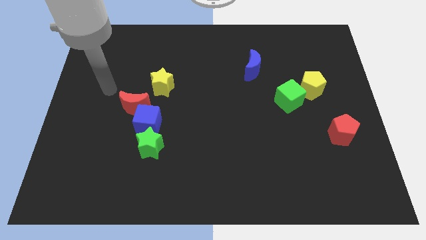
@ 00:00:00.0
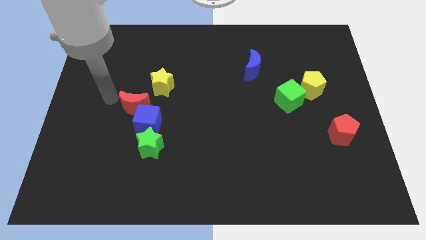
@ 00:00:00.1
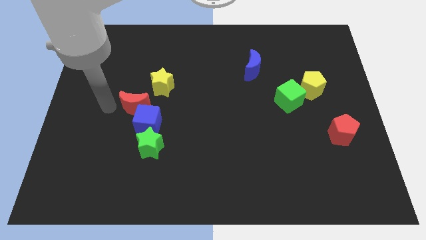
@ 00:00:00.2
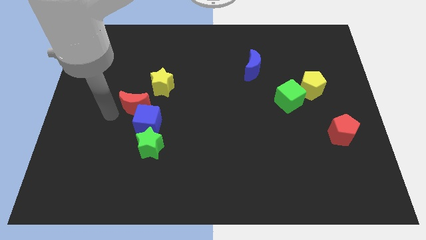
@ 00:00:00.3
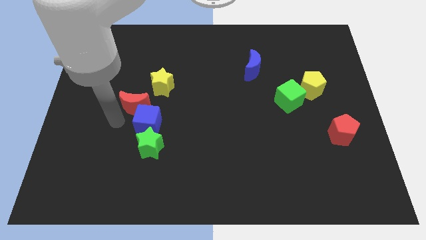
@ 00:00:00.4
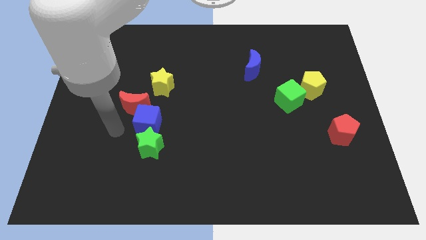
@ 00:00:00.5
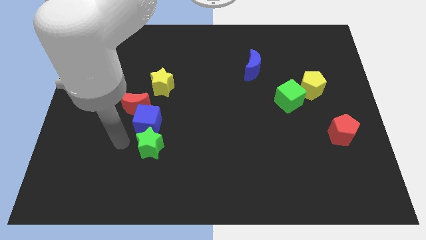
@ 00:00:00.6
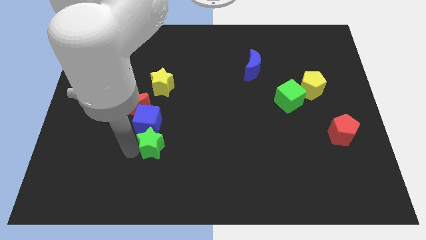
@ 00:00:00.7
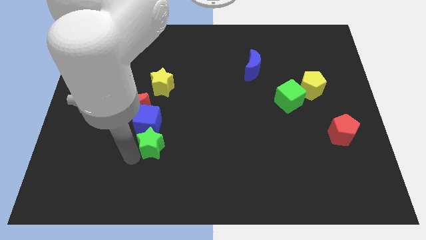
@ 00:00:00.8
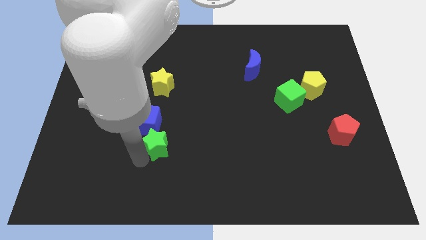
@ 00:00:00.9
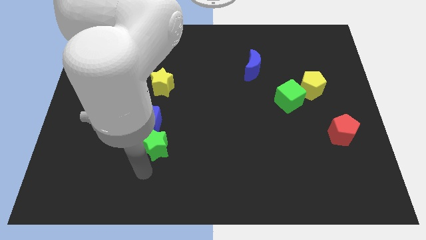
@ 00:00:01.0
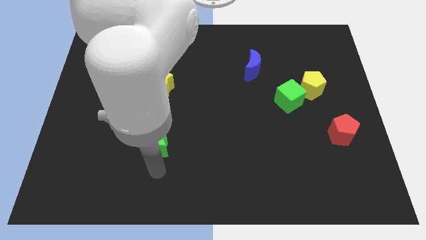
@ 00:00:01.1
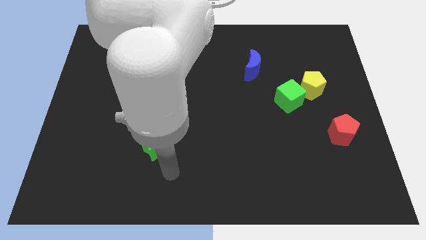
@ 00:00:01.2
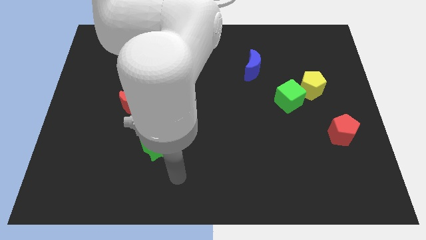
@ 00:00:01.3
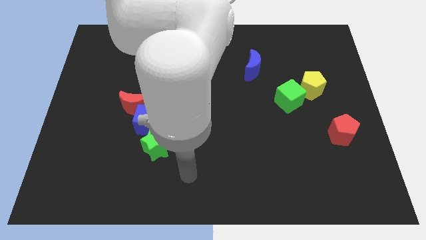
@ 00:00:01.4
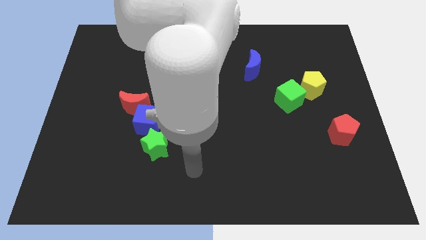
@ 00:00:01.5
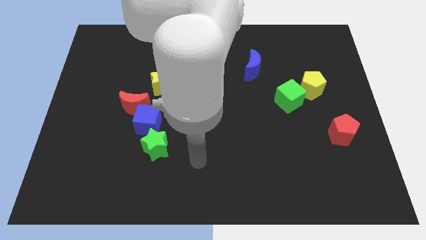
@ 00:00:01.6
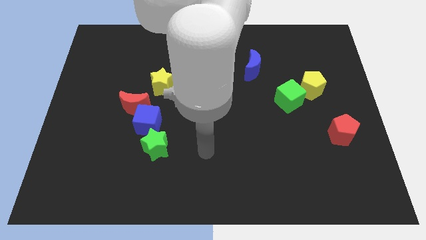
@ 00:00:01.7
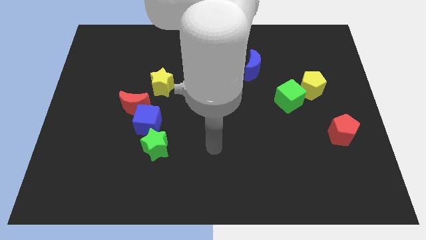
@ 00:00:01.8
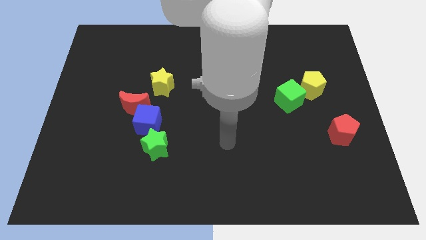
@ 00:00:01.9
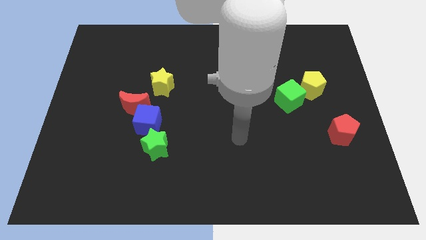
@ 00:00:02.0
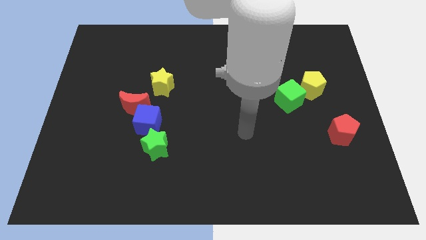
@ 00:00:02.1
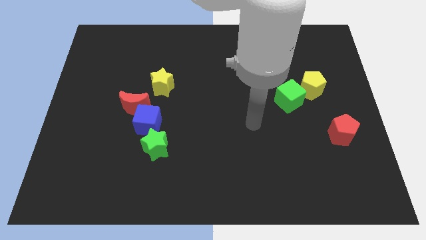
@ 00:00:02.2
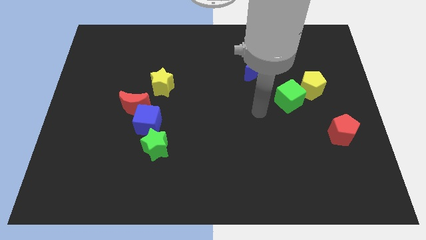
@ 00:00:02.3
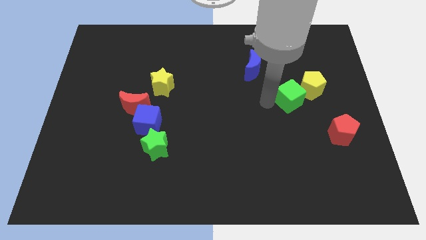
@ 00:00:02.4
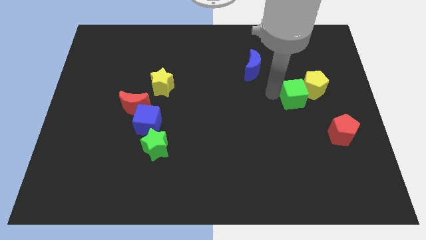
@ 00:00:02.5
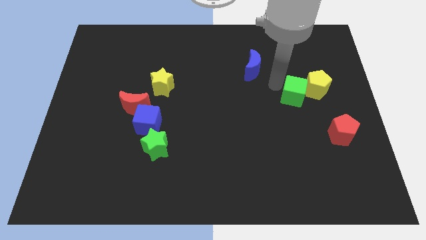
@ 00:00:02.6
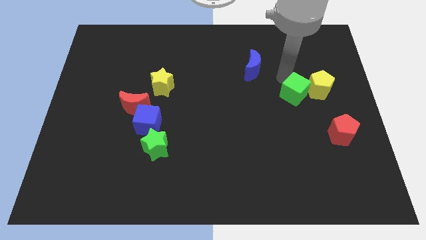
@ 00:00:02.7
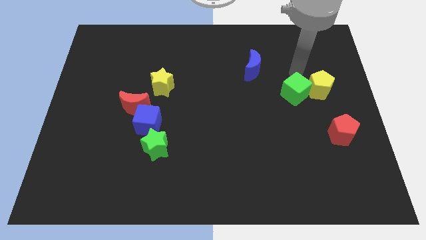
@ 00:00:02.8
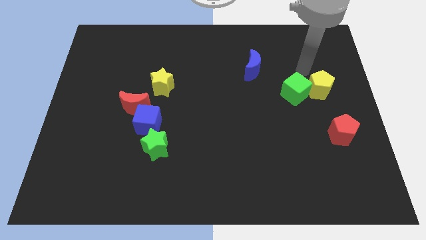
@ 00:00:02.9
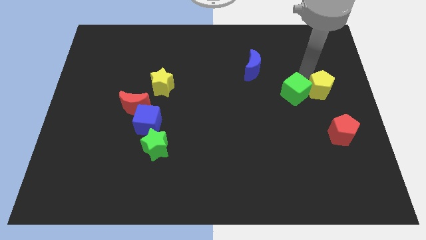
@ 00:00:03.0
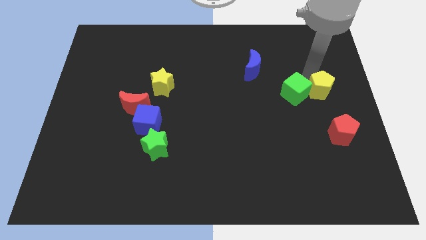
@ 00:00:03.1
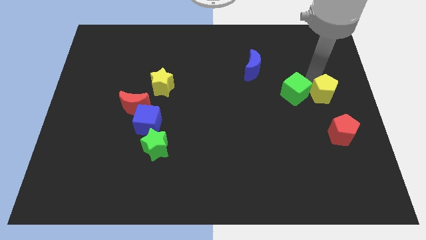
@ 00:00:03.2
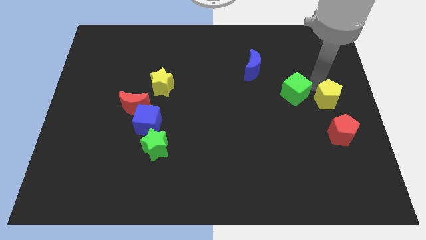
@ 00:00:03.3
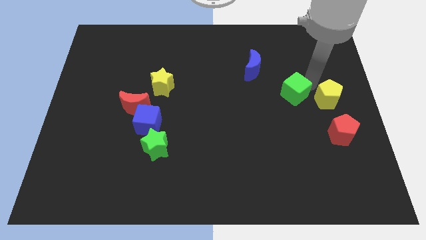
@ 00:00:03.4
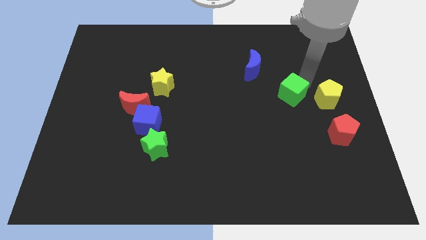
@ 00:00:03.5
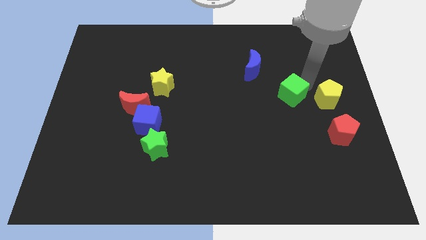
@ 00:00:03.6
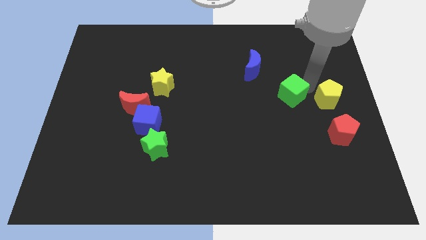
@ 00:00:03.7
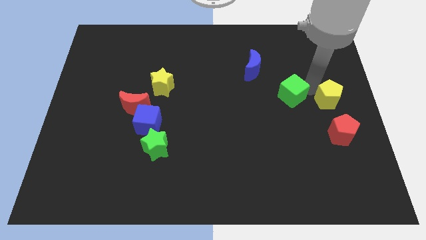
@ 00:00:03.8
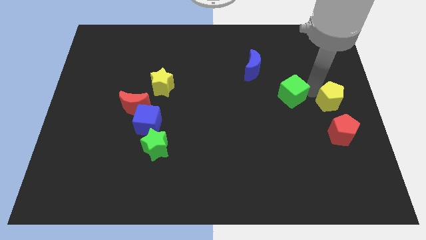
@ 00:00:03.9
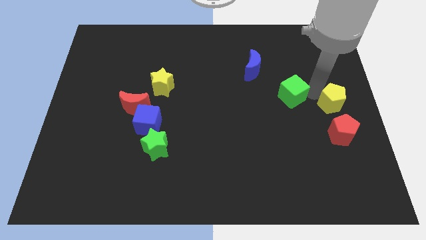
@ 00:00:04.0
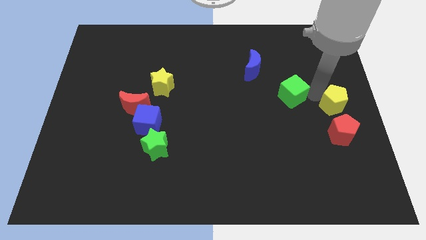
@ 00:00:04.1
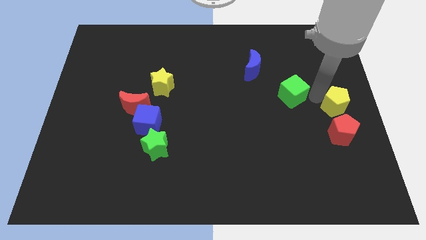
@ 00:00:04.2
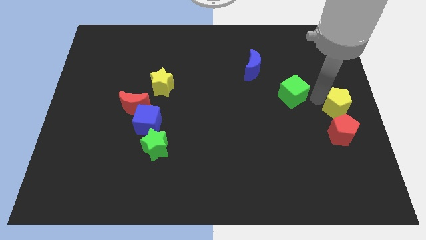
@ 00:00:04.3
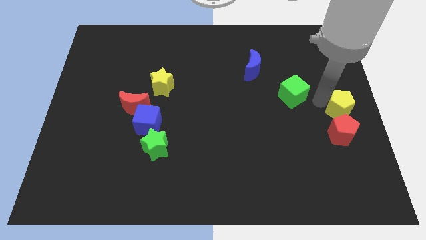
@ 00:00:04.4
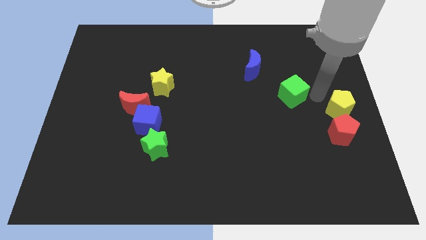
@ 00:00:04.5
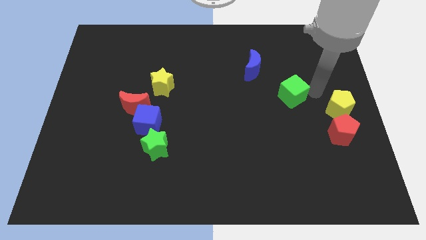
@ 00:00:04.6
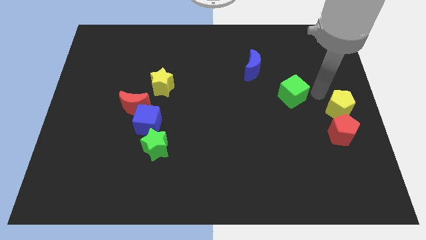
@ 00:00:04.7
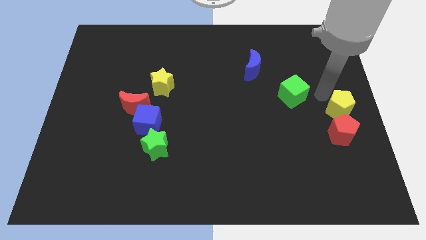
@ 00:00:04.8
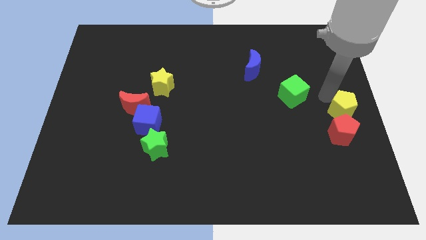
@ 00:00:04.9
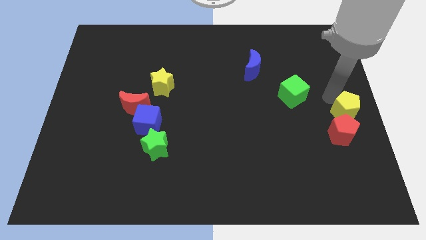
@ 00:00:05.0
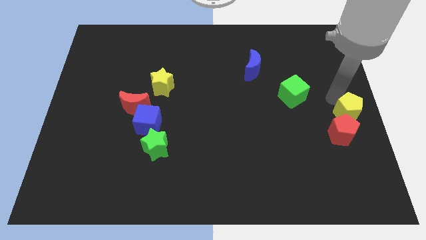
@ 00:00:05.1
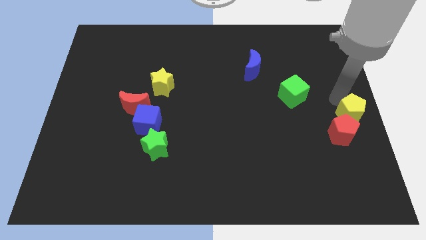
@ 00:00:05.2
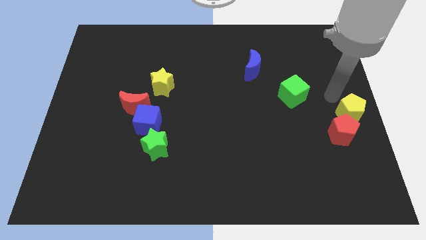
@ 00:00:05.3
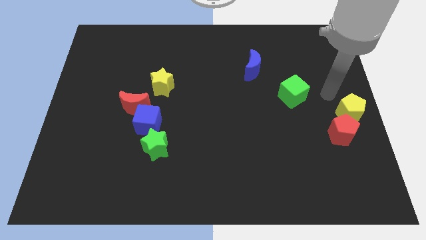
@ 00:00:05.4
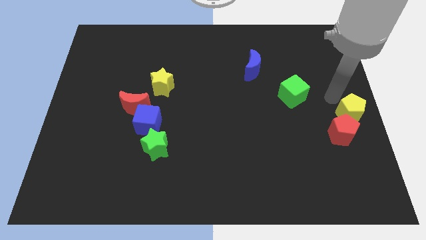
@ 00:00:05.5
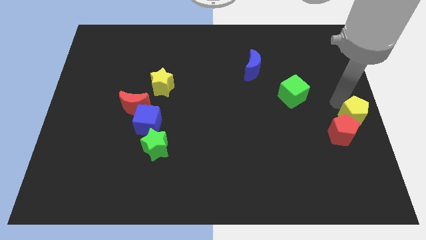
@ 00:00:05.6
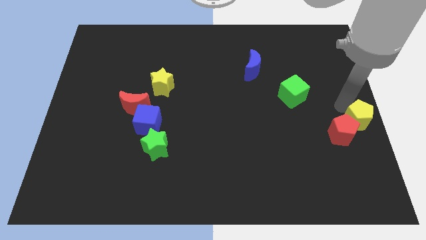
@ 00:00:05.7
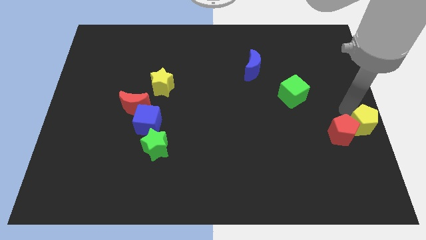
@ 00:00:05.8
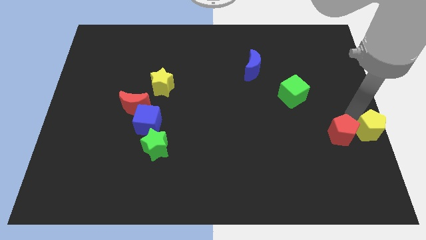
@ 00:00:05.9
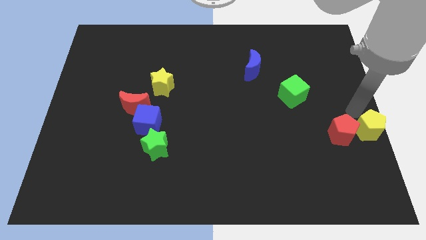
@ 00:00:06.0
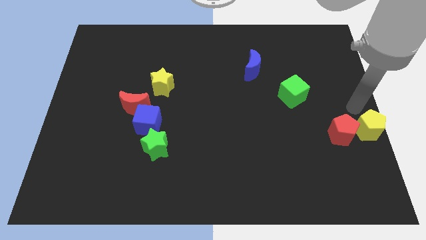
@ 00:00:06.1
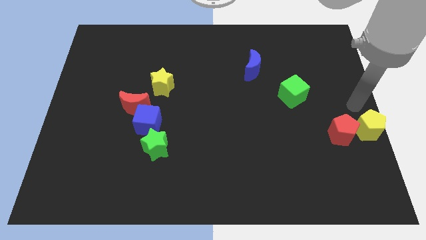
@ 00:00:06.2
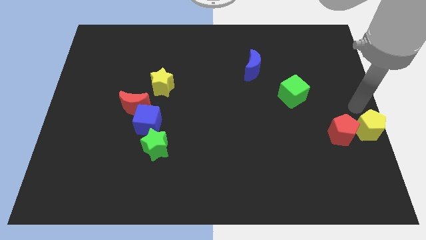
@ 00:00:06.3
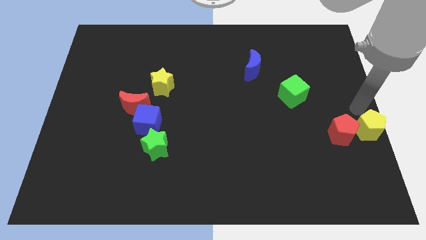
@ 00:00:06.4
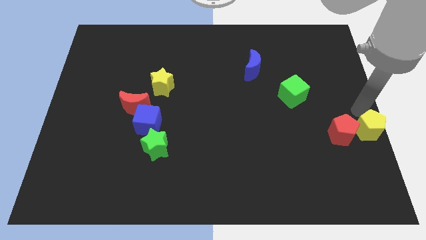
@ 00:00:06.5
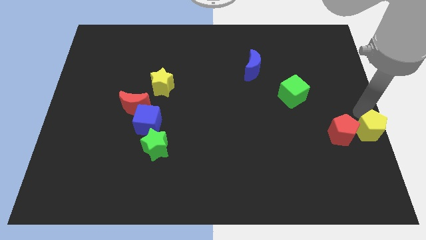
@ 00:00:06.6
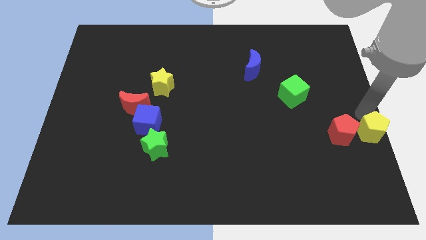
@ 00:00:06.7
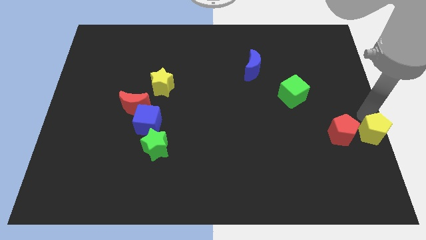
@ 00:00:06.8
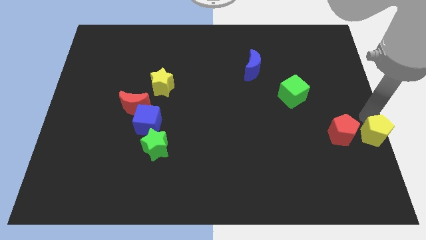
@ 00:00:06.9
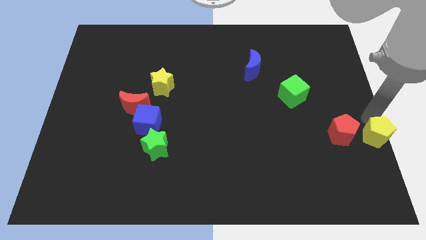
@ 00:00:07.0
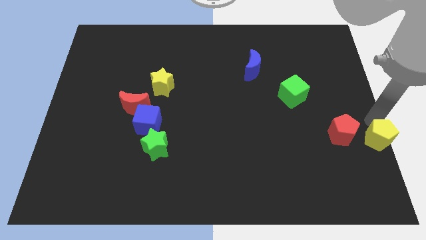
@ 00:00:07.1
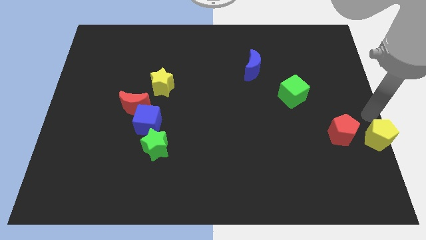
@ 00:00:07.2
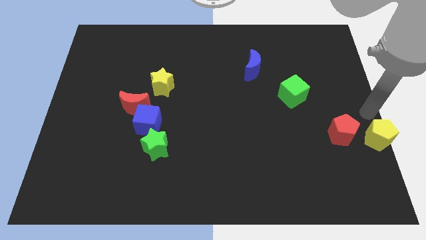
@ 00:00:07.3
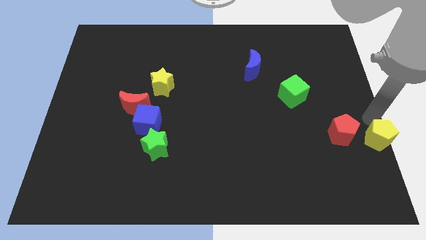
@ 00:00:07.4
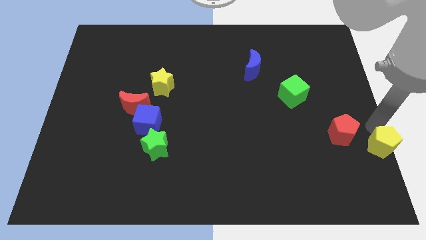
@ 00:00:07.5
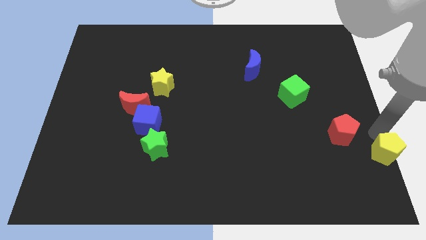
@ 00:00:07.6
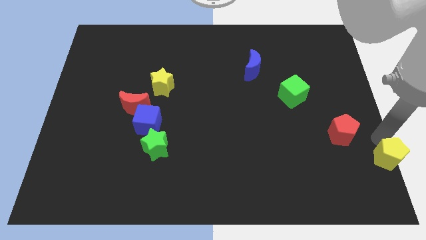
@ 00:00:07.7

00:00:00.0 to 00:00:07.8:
slide the yellow pentagon to the bottom right of the board
